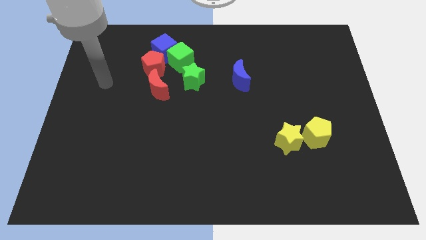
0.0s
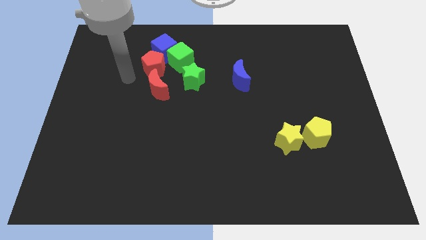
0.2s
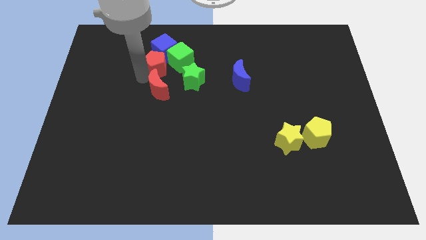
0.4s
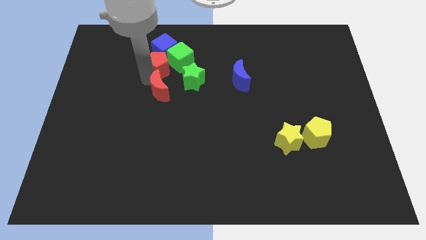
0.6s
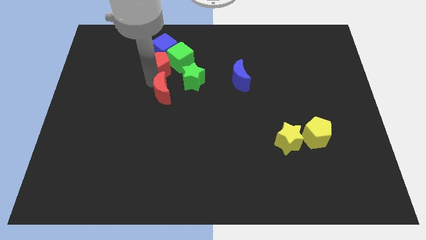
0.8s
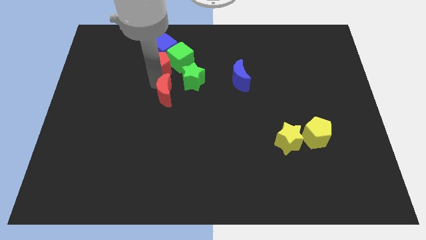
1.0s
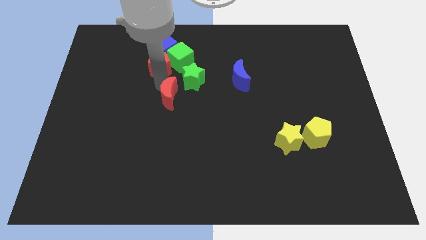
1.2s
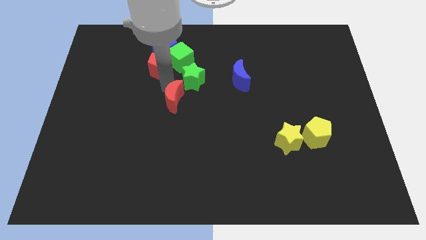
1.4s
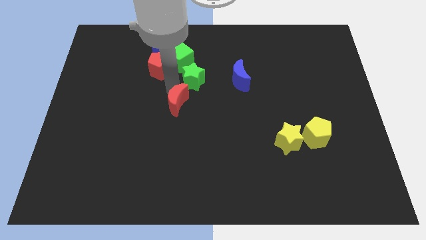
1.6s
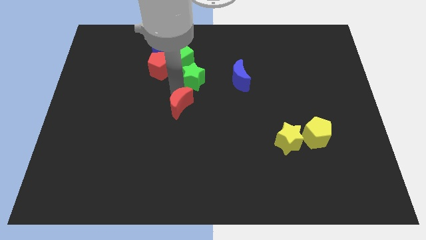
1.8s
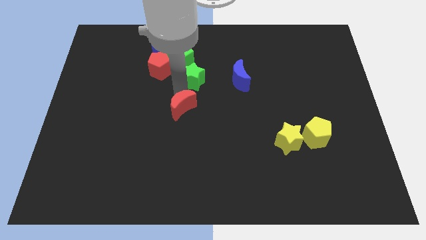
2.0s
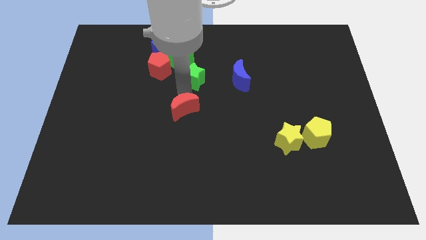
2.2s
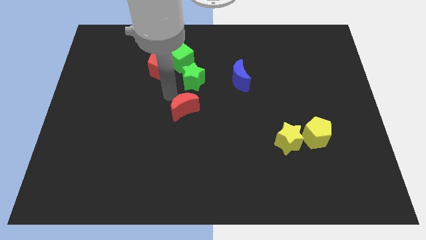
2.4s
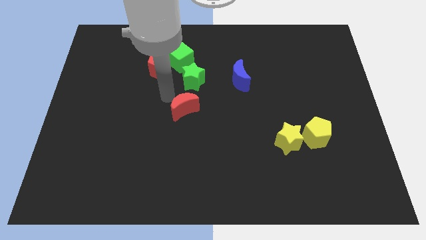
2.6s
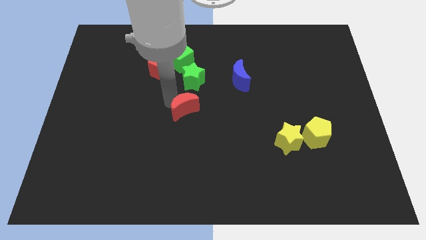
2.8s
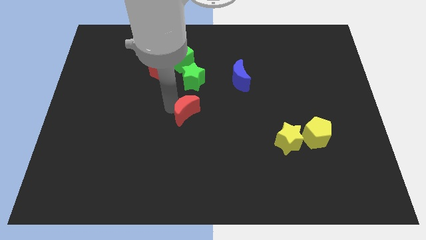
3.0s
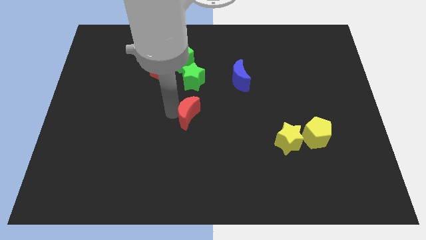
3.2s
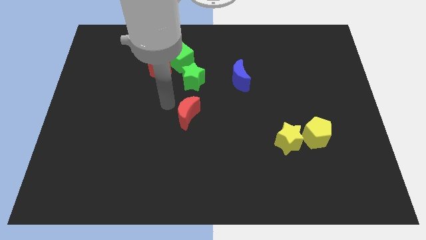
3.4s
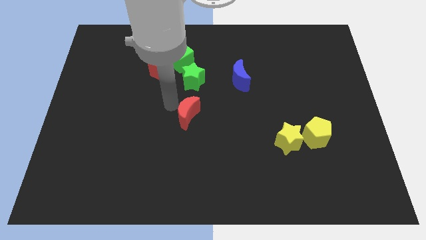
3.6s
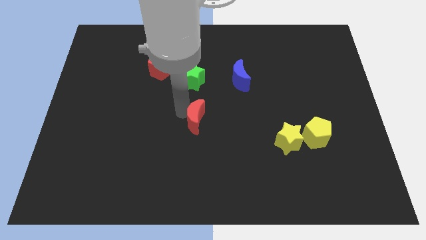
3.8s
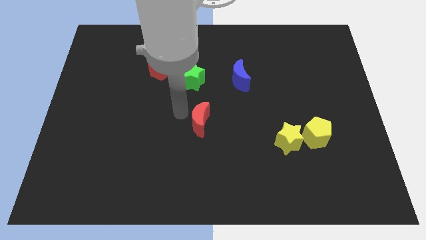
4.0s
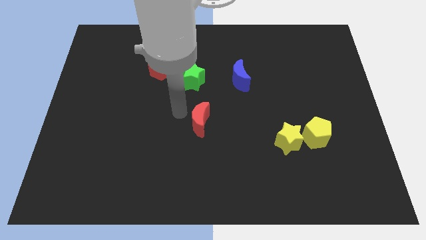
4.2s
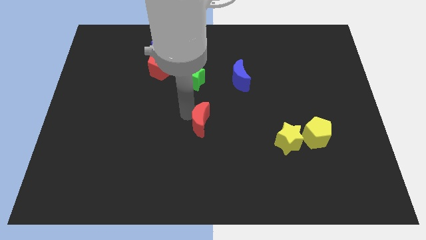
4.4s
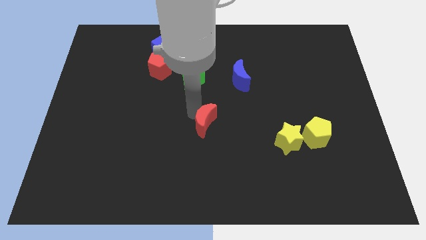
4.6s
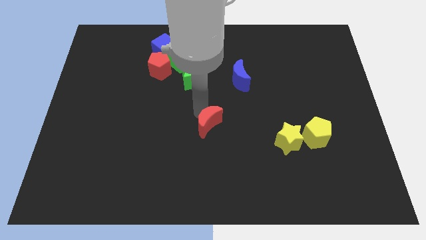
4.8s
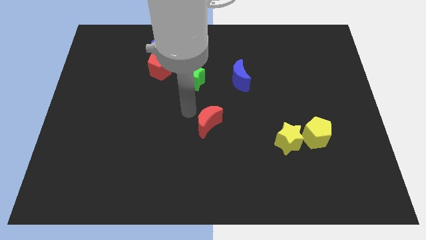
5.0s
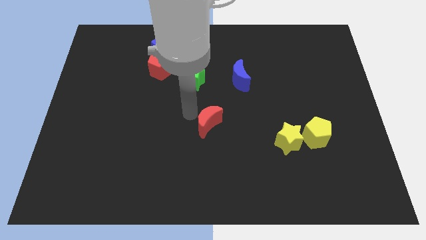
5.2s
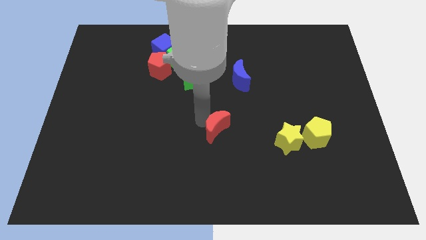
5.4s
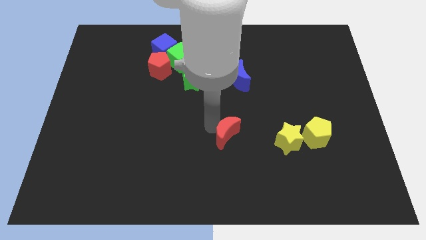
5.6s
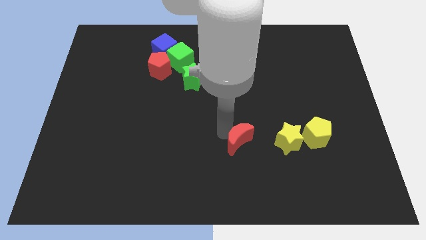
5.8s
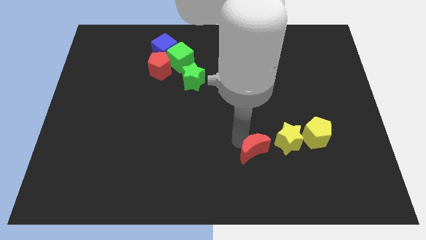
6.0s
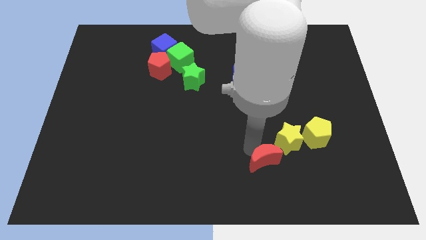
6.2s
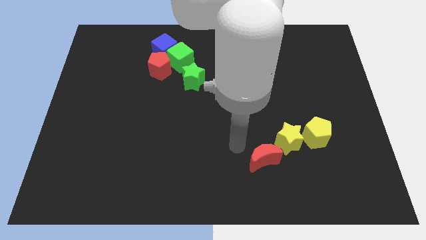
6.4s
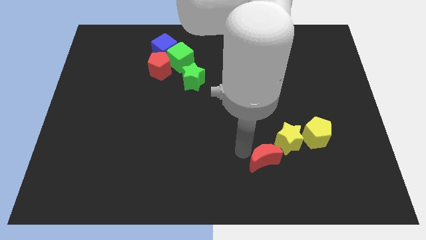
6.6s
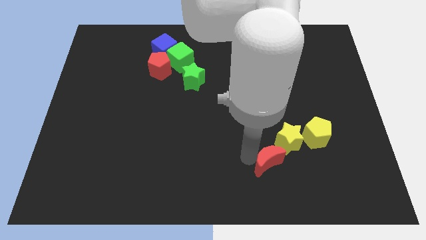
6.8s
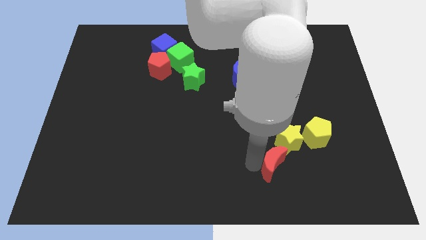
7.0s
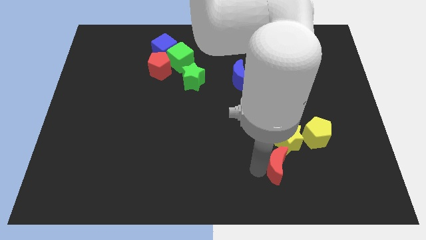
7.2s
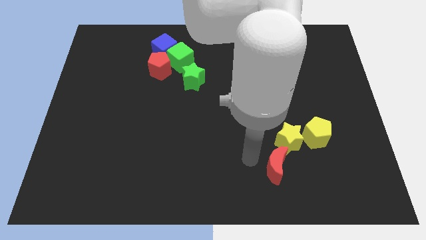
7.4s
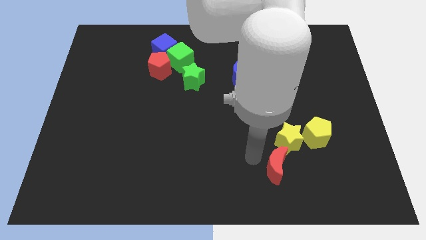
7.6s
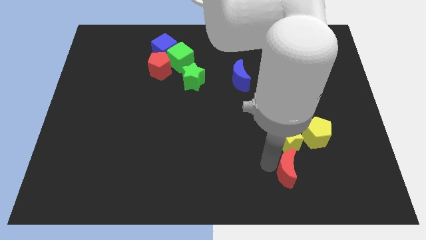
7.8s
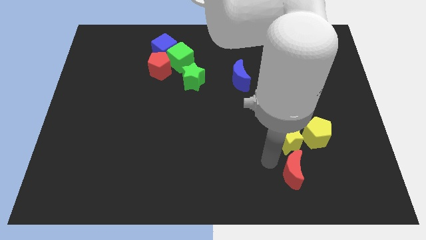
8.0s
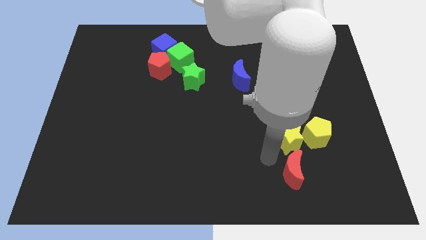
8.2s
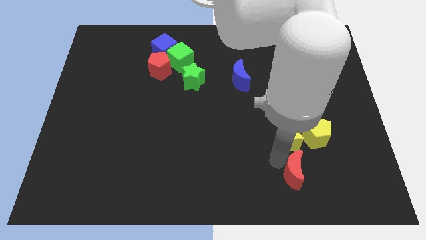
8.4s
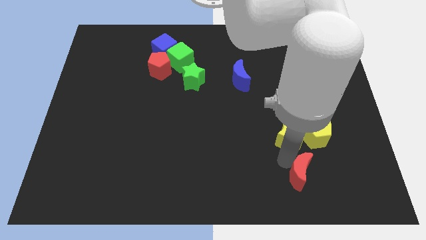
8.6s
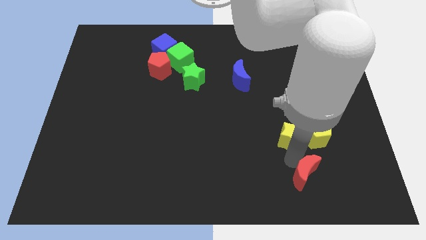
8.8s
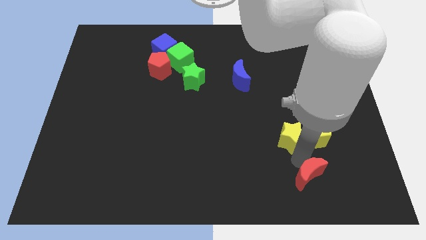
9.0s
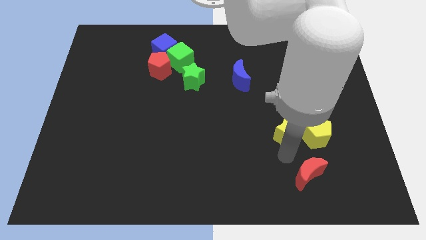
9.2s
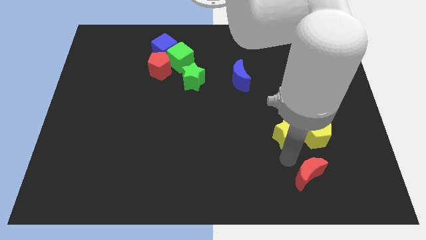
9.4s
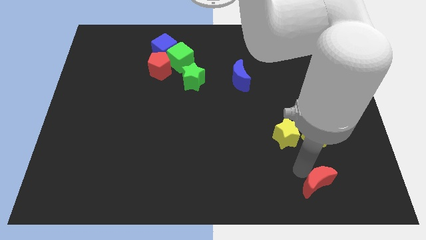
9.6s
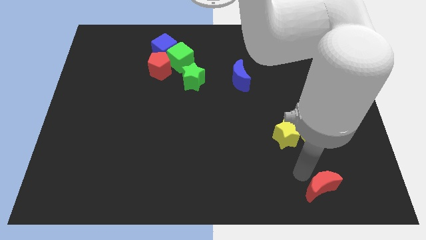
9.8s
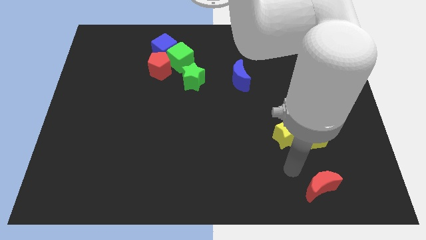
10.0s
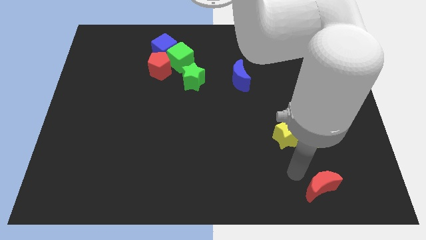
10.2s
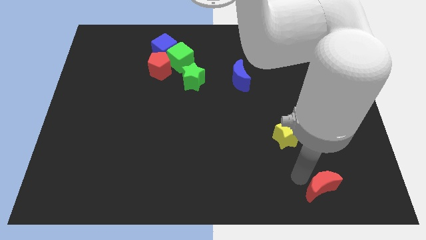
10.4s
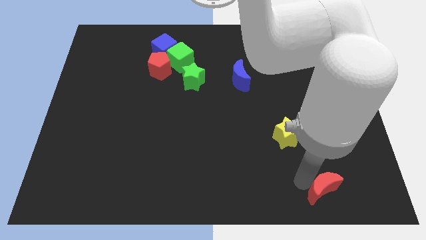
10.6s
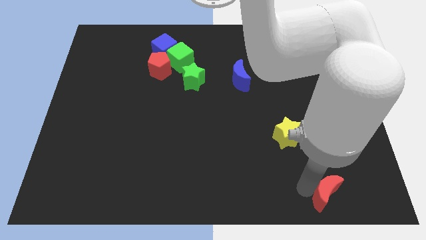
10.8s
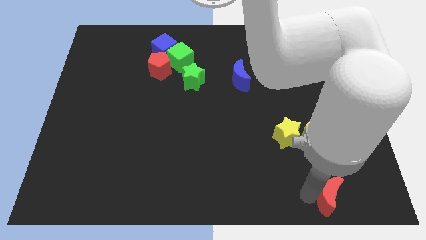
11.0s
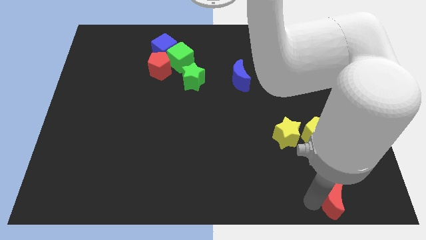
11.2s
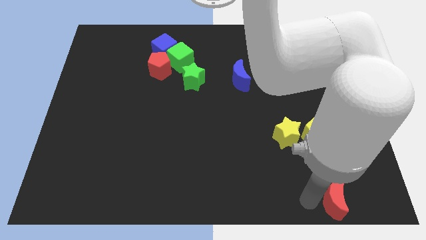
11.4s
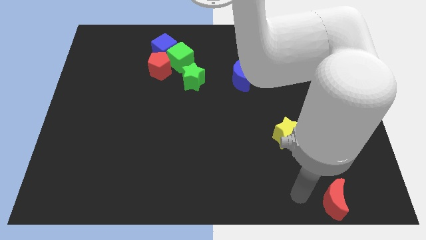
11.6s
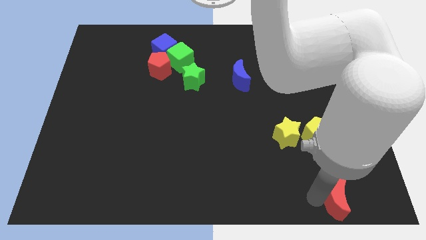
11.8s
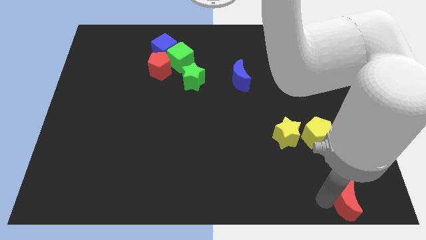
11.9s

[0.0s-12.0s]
put the red moon to the bottom right of the board
